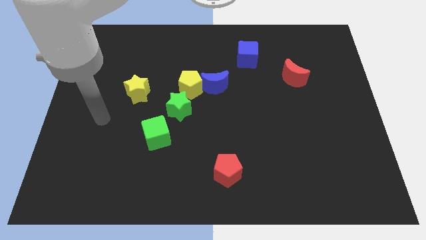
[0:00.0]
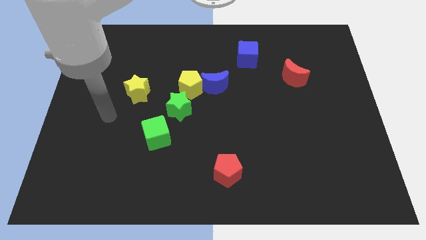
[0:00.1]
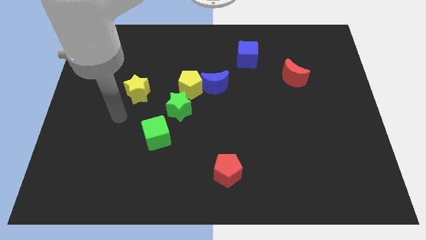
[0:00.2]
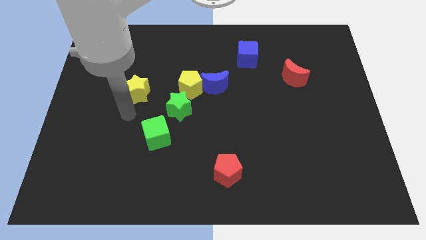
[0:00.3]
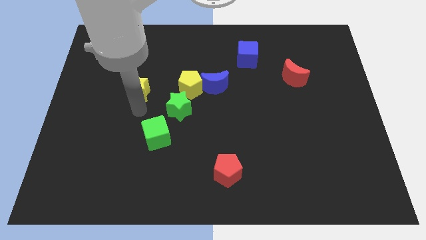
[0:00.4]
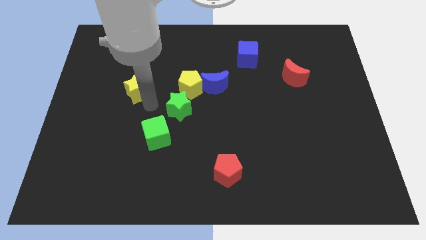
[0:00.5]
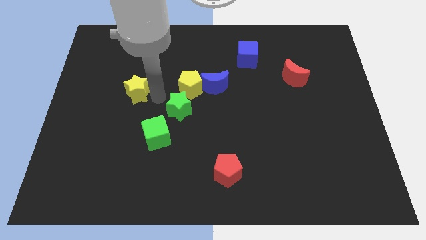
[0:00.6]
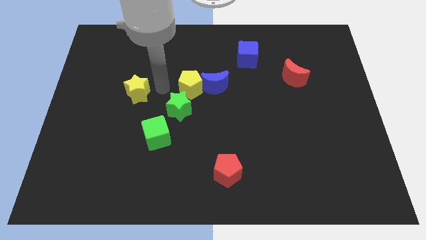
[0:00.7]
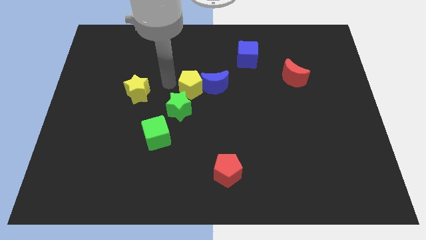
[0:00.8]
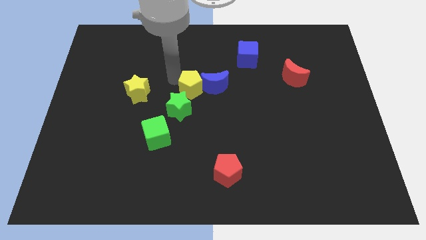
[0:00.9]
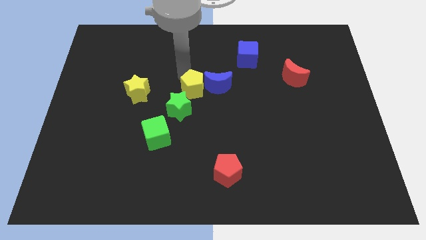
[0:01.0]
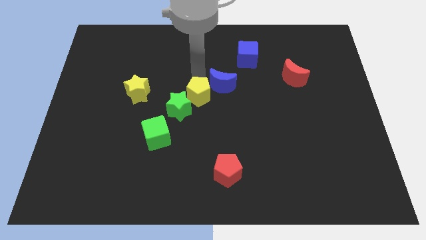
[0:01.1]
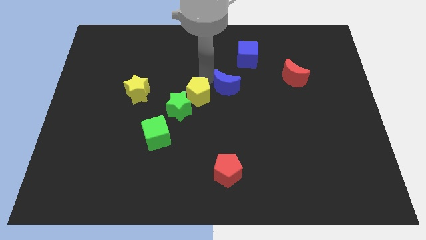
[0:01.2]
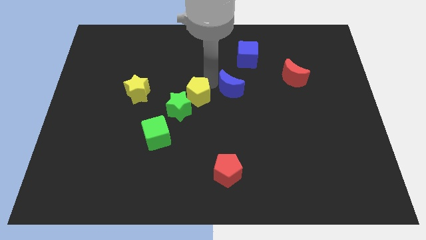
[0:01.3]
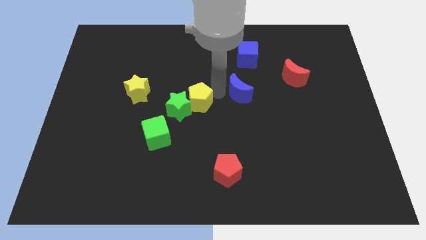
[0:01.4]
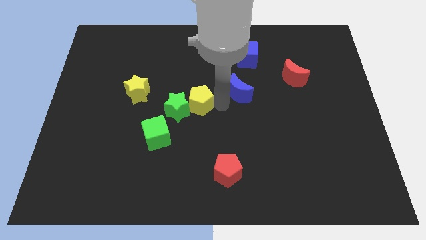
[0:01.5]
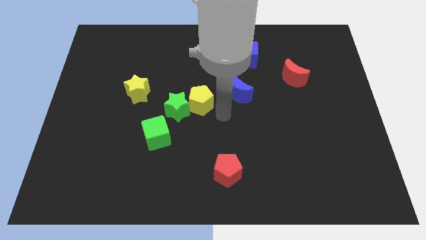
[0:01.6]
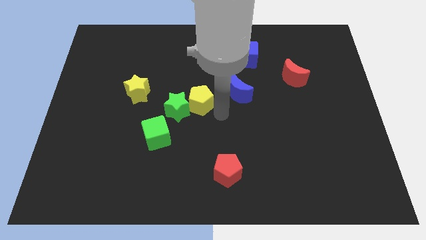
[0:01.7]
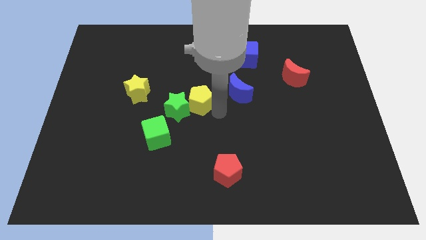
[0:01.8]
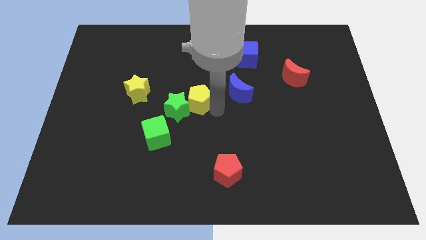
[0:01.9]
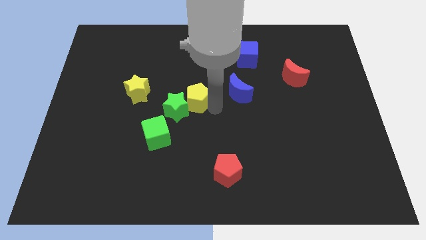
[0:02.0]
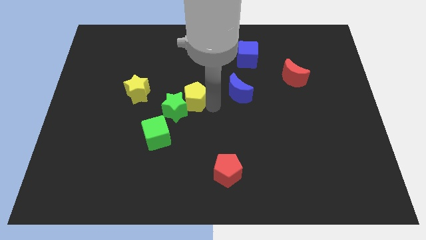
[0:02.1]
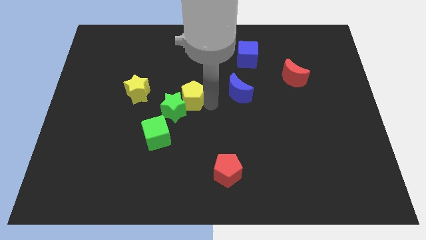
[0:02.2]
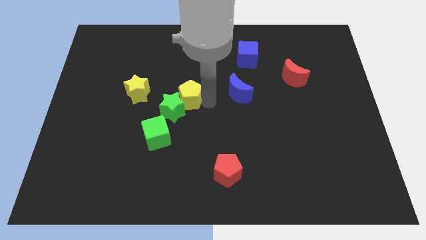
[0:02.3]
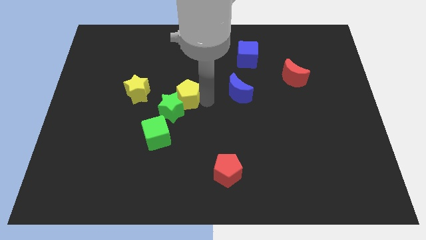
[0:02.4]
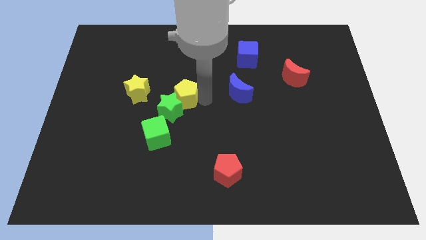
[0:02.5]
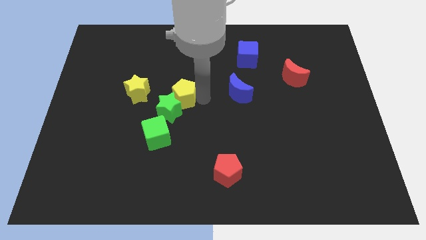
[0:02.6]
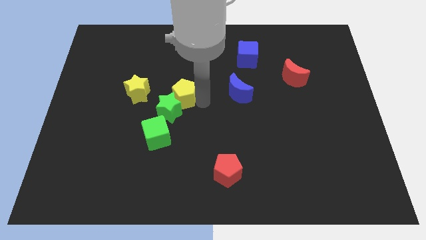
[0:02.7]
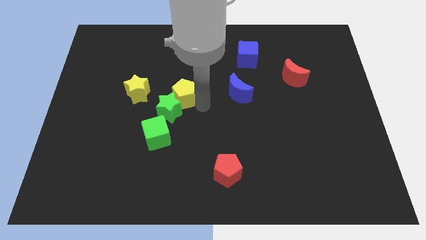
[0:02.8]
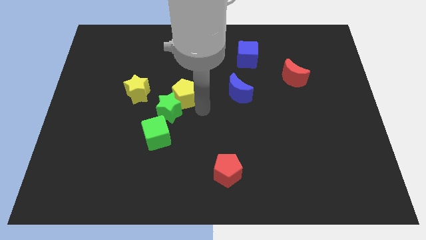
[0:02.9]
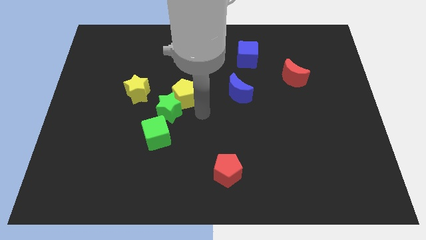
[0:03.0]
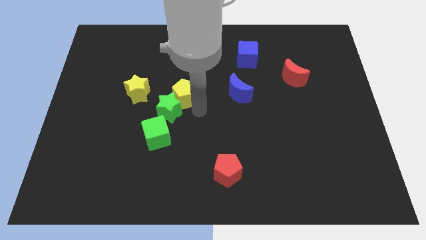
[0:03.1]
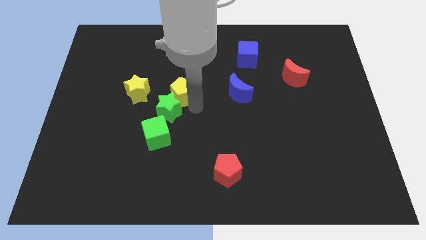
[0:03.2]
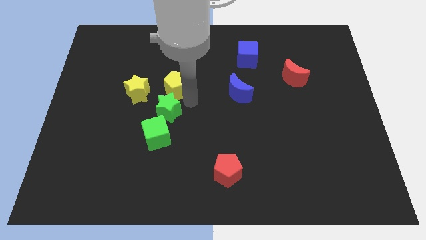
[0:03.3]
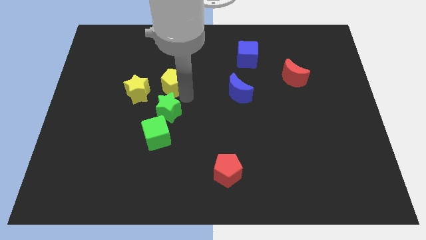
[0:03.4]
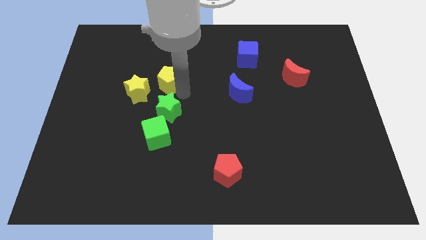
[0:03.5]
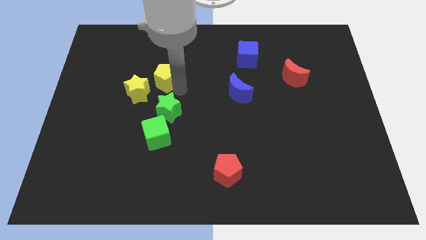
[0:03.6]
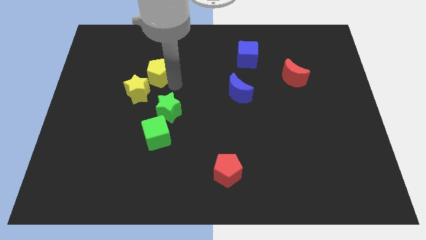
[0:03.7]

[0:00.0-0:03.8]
move the yellow pentagon to the left somewhat

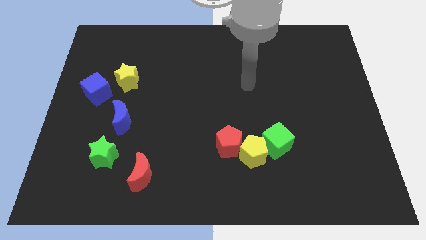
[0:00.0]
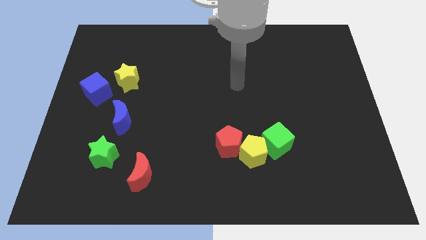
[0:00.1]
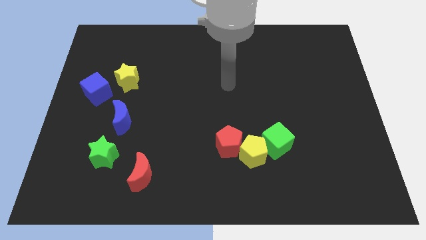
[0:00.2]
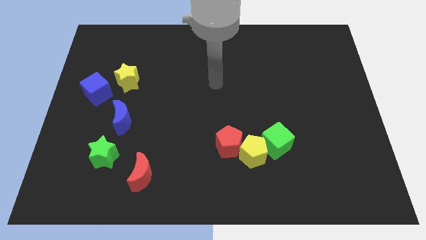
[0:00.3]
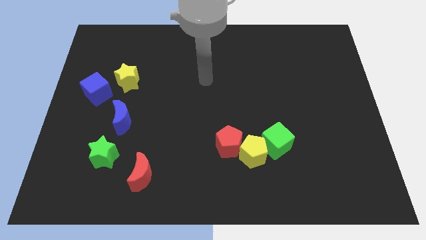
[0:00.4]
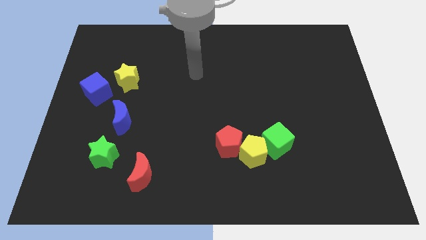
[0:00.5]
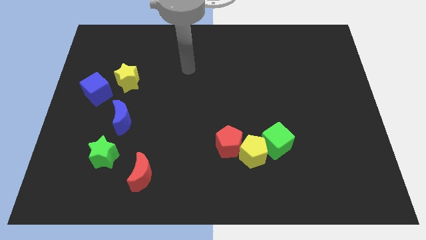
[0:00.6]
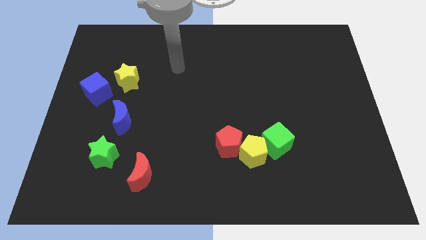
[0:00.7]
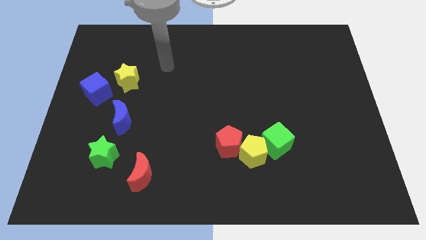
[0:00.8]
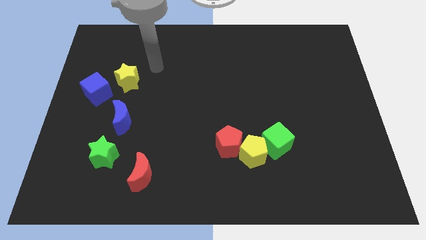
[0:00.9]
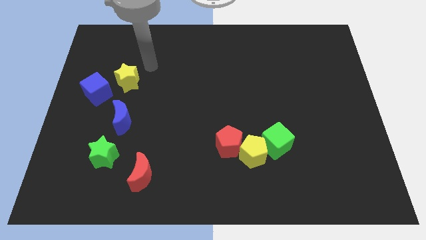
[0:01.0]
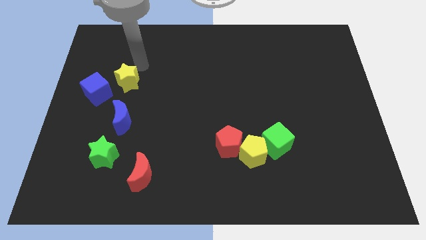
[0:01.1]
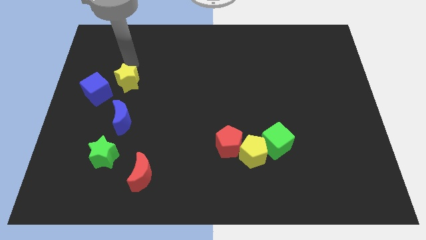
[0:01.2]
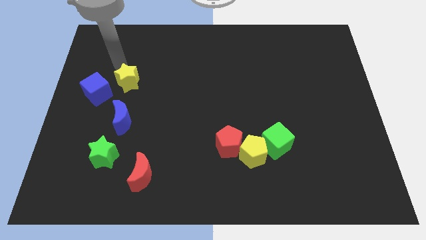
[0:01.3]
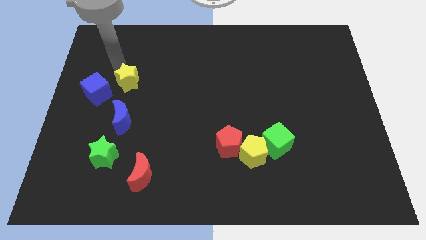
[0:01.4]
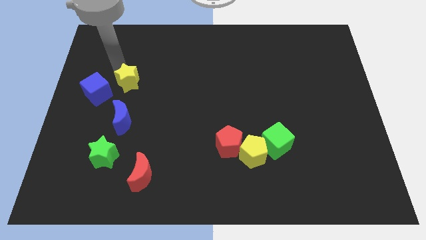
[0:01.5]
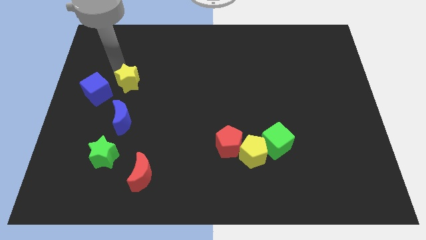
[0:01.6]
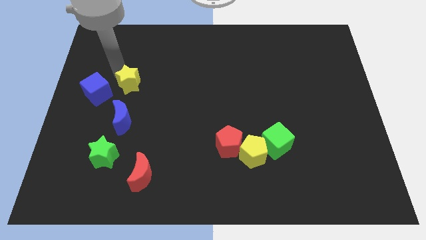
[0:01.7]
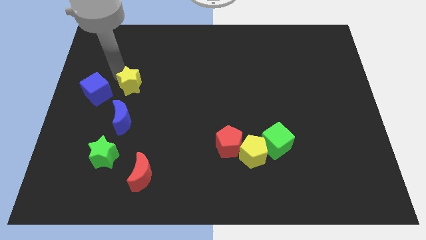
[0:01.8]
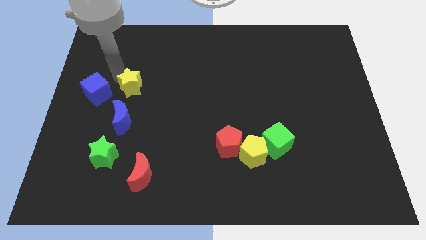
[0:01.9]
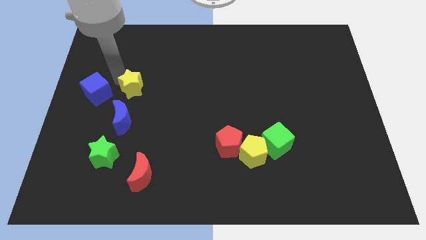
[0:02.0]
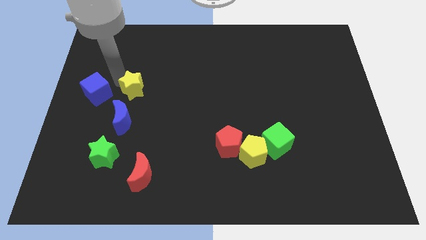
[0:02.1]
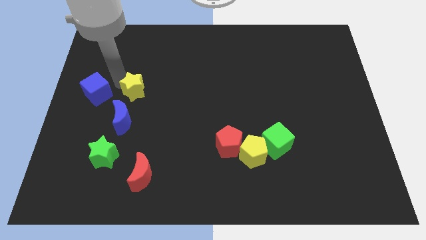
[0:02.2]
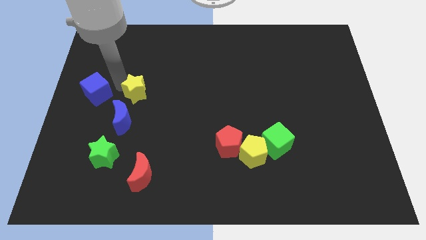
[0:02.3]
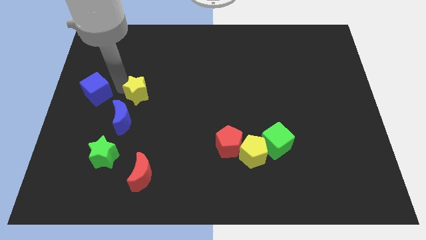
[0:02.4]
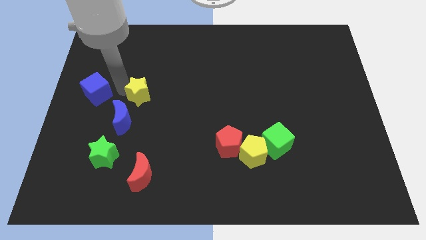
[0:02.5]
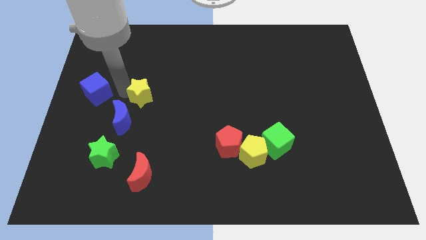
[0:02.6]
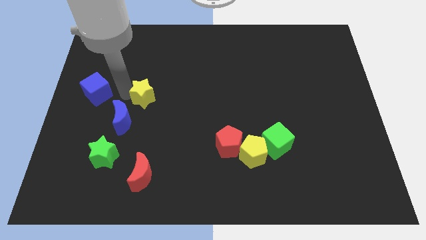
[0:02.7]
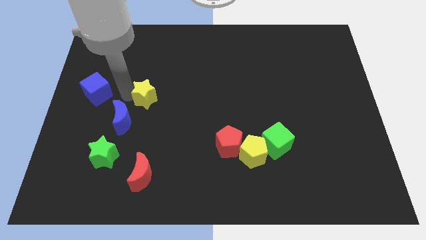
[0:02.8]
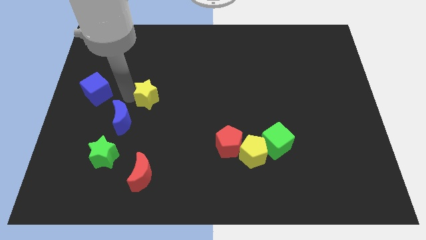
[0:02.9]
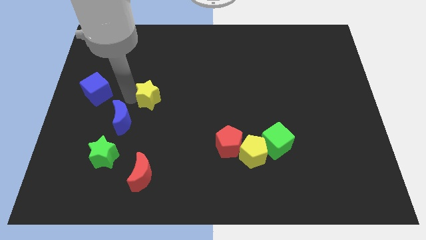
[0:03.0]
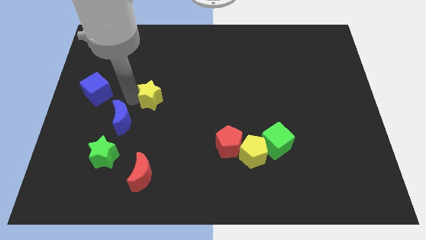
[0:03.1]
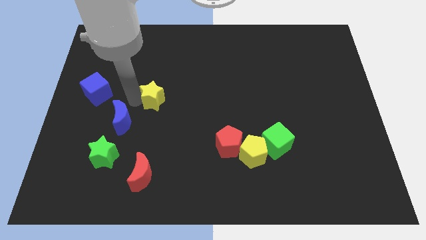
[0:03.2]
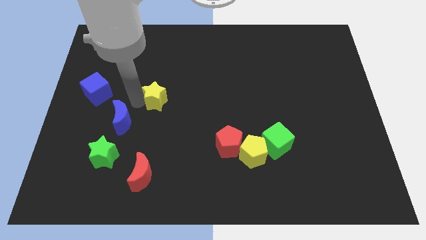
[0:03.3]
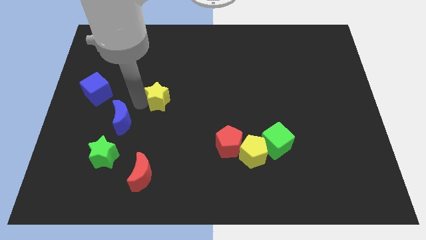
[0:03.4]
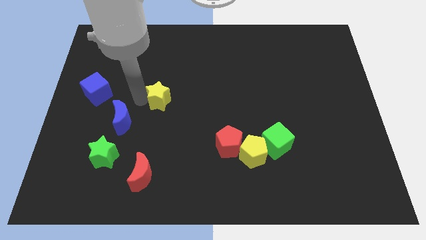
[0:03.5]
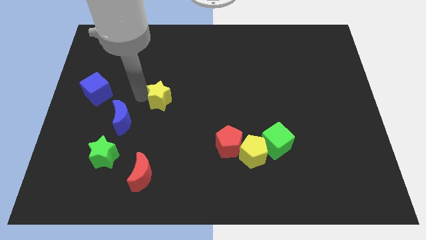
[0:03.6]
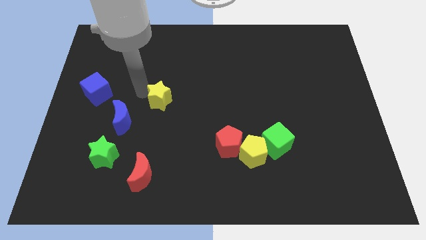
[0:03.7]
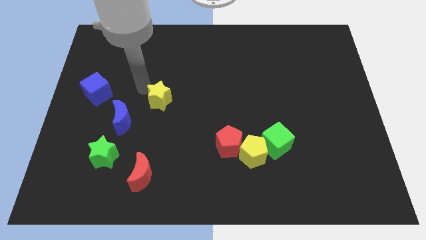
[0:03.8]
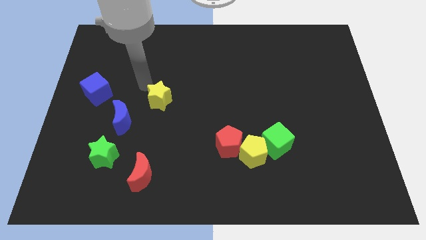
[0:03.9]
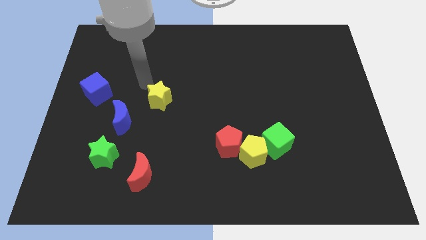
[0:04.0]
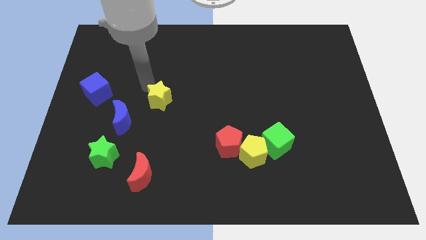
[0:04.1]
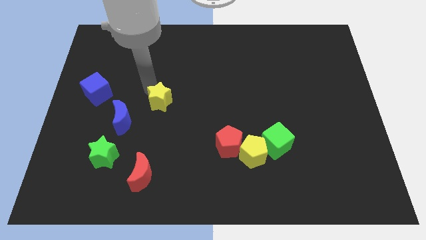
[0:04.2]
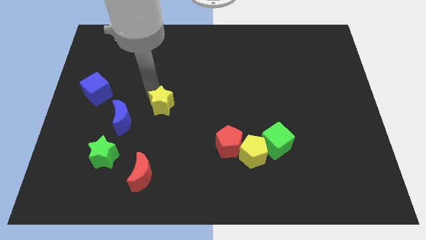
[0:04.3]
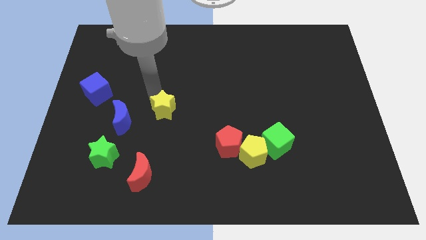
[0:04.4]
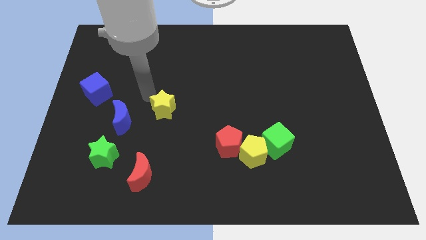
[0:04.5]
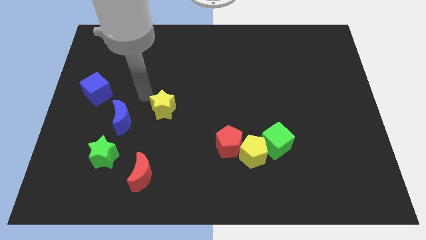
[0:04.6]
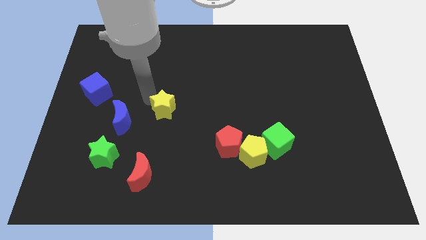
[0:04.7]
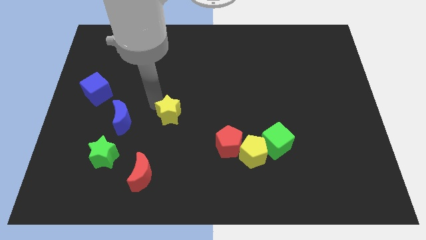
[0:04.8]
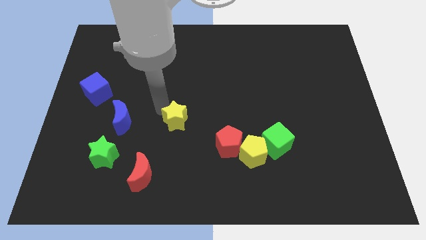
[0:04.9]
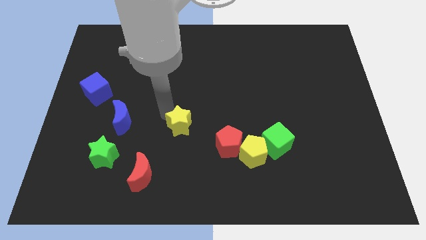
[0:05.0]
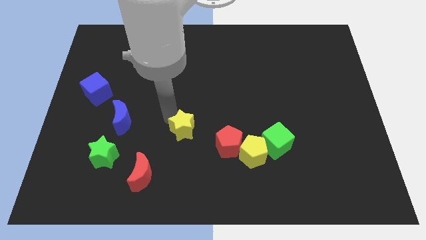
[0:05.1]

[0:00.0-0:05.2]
slide the yellow star downwards and to the right diagonally
